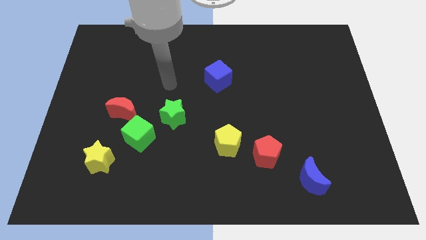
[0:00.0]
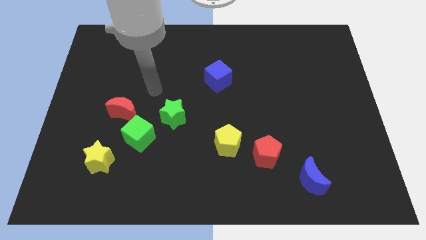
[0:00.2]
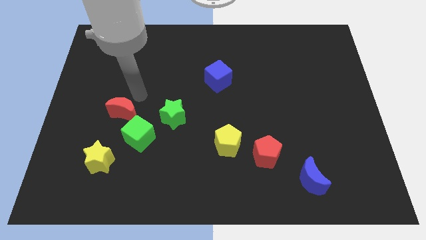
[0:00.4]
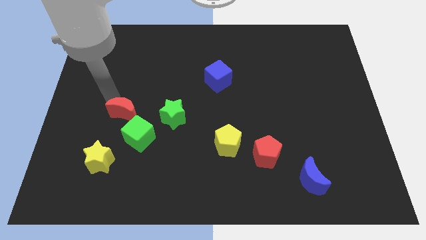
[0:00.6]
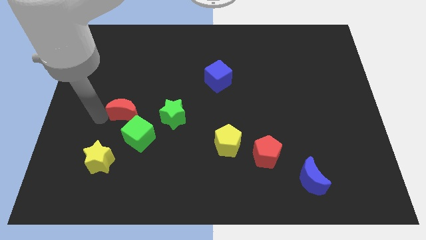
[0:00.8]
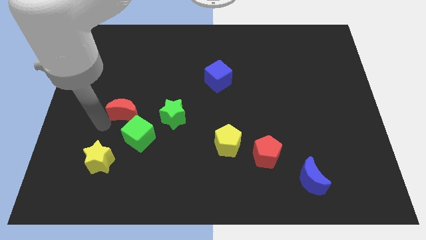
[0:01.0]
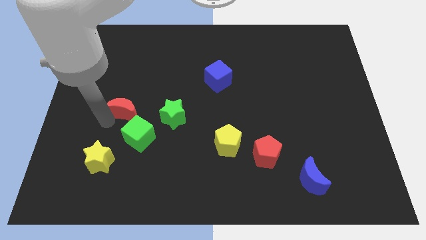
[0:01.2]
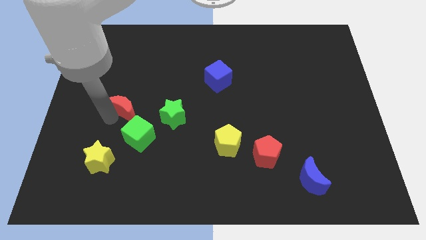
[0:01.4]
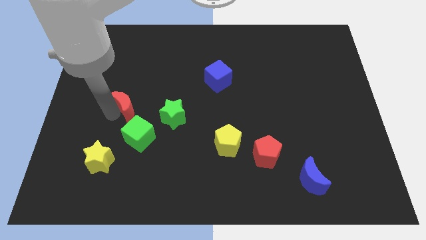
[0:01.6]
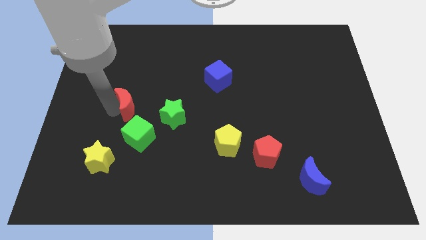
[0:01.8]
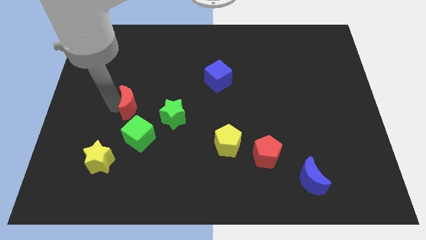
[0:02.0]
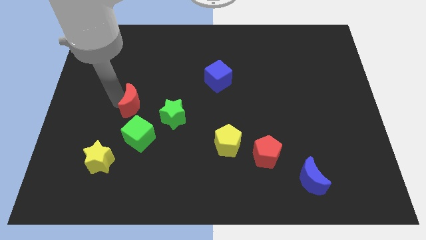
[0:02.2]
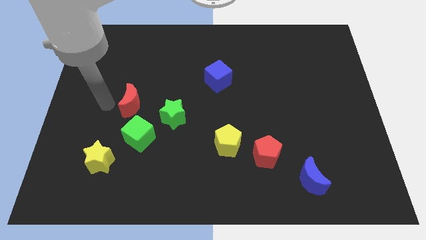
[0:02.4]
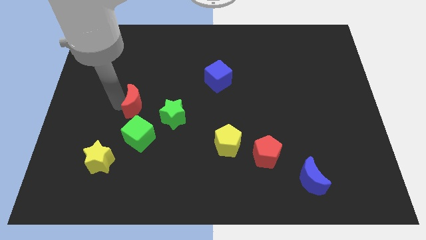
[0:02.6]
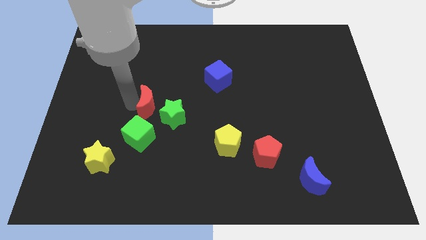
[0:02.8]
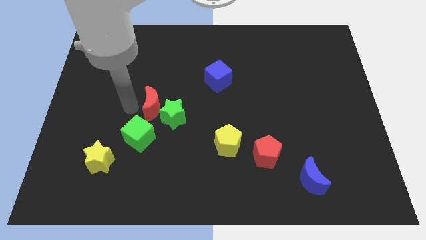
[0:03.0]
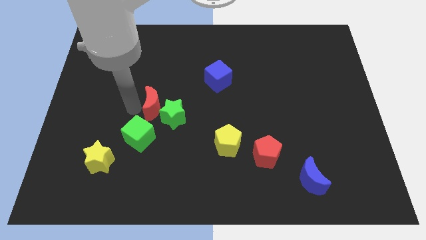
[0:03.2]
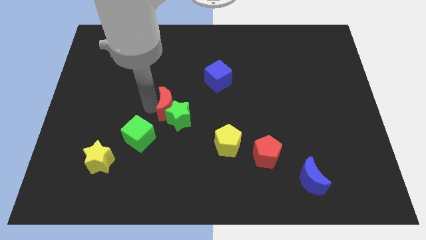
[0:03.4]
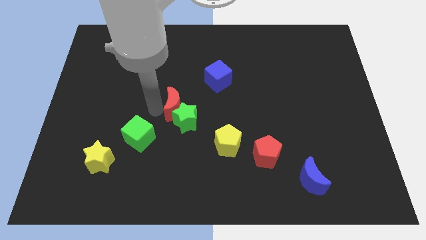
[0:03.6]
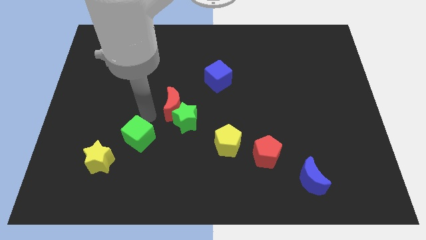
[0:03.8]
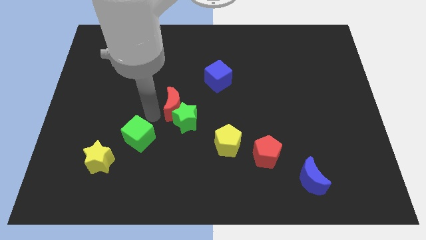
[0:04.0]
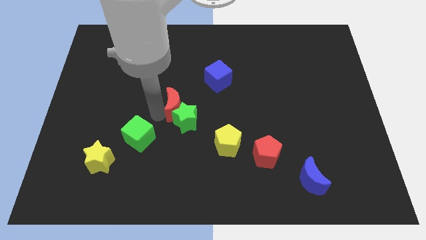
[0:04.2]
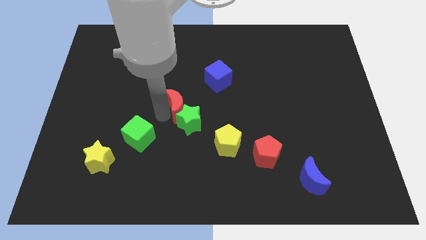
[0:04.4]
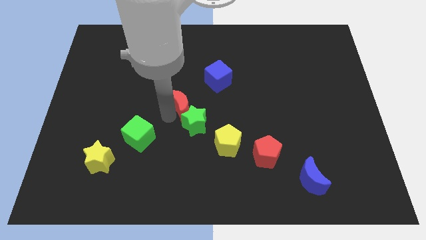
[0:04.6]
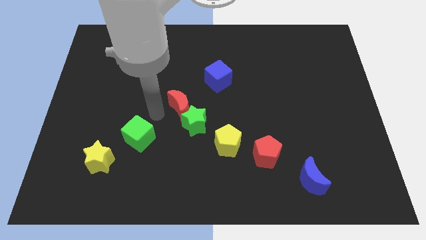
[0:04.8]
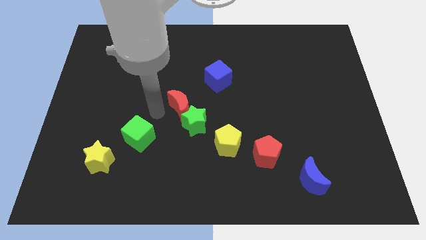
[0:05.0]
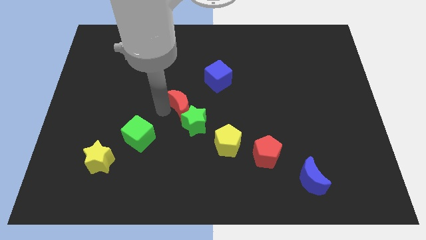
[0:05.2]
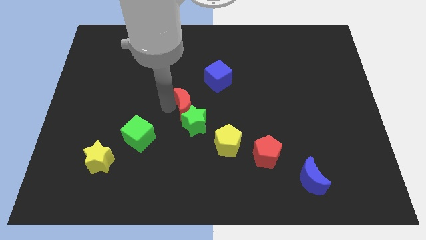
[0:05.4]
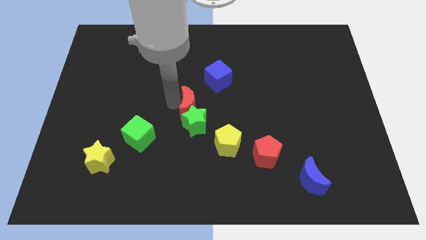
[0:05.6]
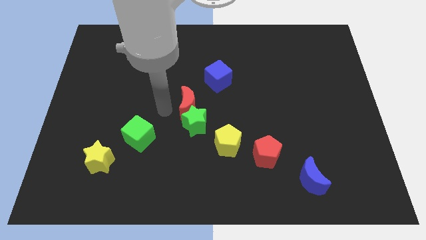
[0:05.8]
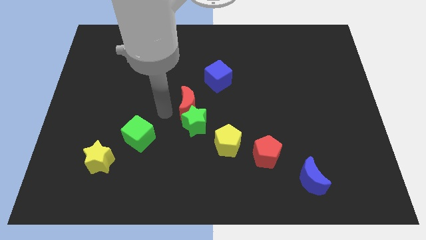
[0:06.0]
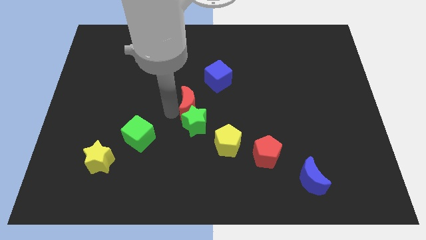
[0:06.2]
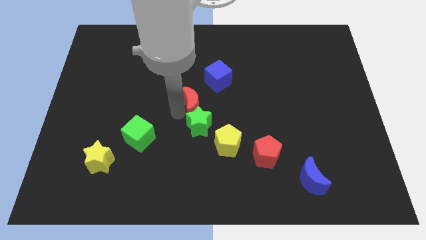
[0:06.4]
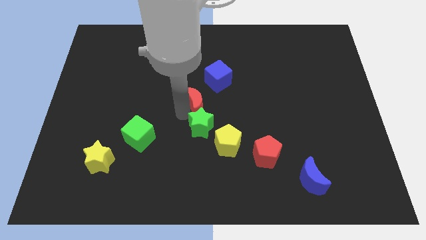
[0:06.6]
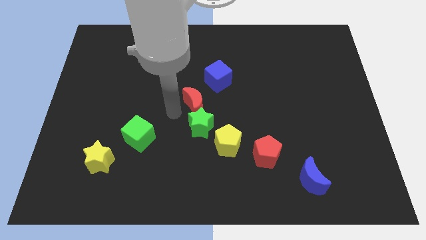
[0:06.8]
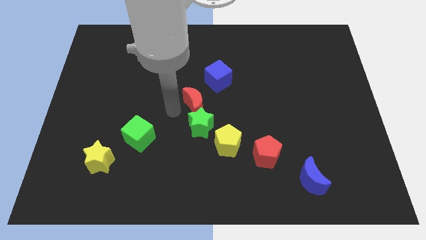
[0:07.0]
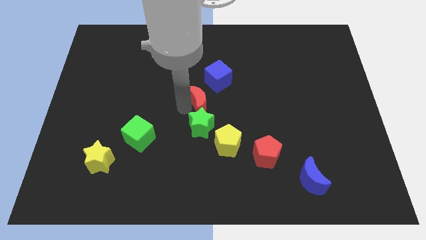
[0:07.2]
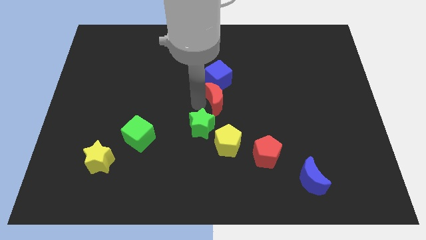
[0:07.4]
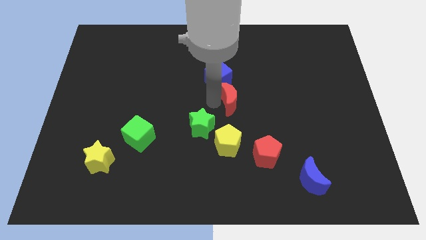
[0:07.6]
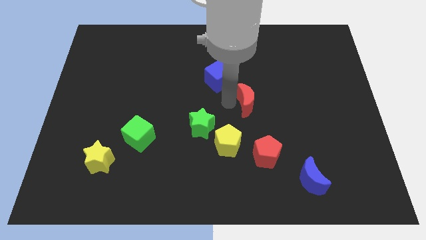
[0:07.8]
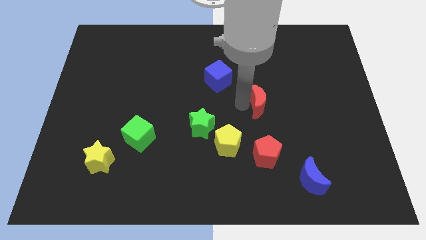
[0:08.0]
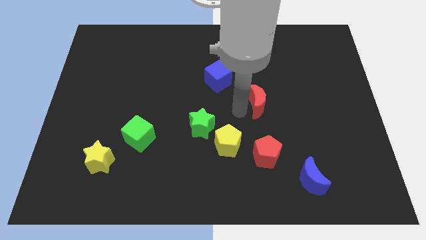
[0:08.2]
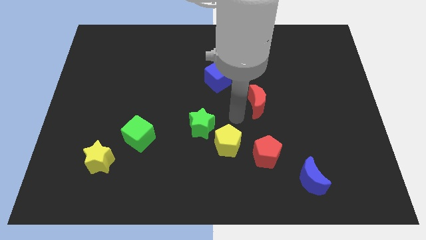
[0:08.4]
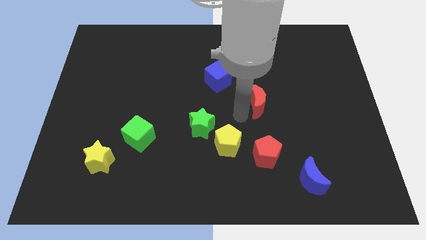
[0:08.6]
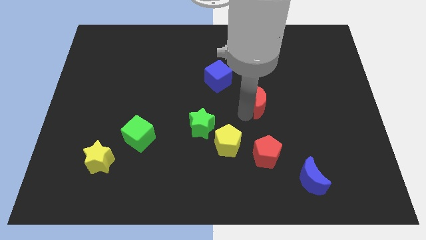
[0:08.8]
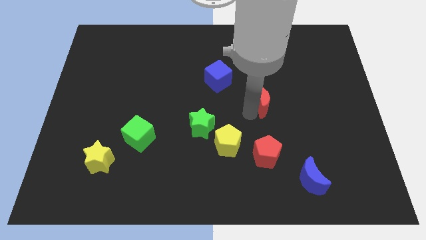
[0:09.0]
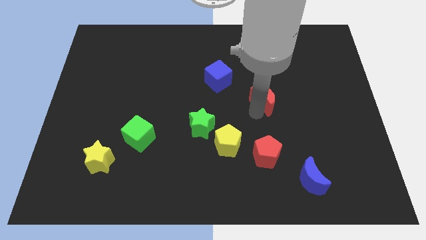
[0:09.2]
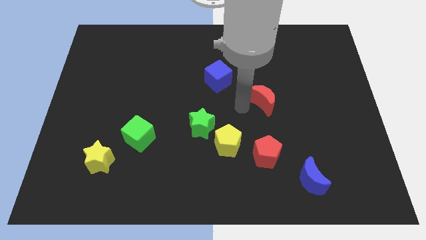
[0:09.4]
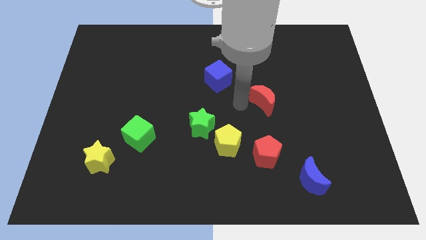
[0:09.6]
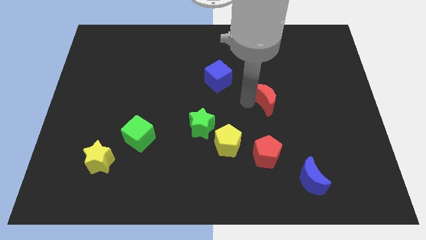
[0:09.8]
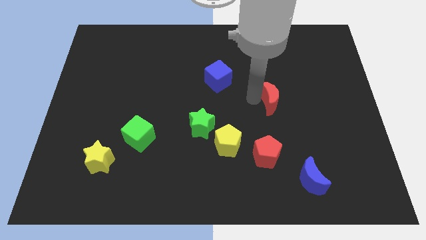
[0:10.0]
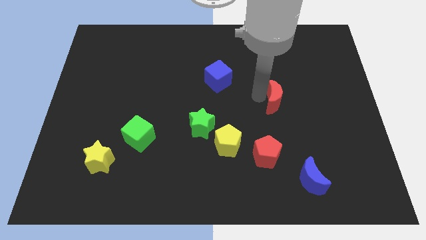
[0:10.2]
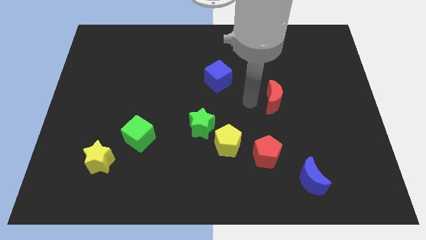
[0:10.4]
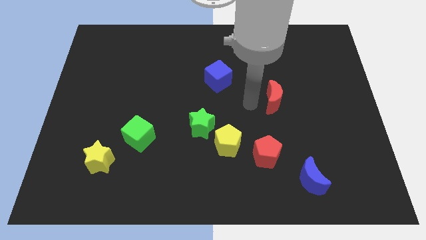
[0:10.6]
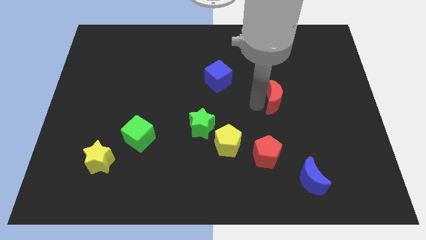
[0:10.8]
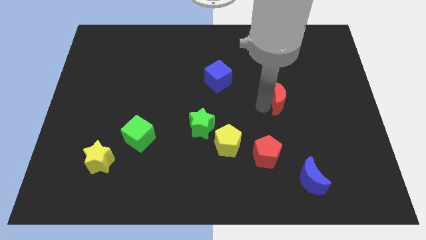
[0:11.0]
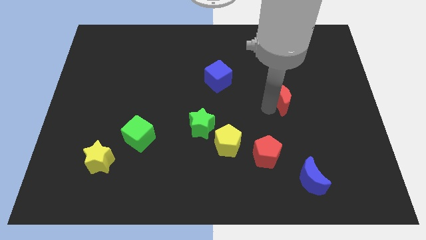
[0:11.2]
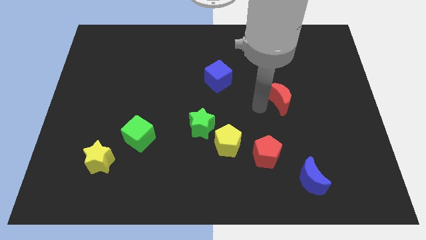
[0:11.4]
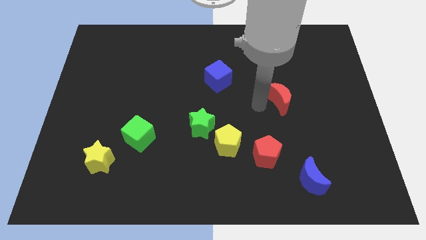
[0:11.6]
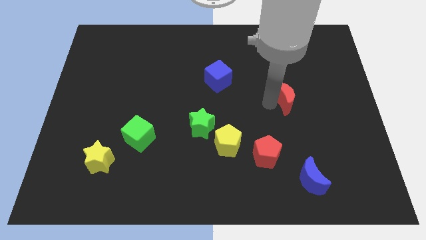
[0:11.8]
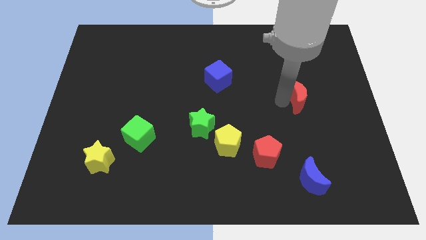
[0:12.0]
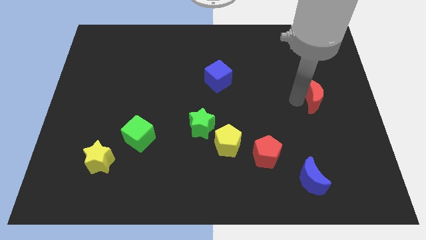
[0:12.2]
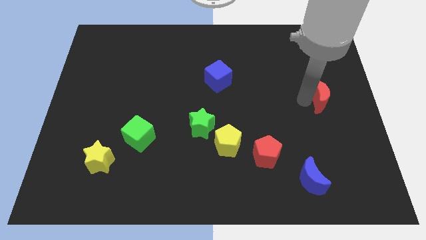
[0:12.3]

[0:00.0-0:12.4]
slide the red moon to the center right

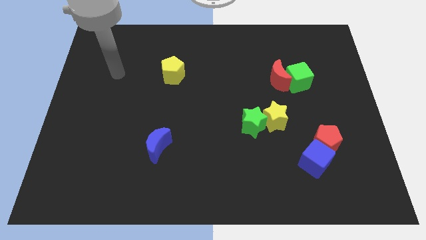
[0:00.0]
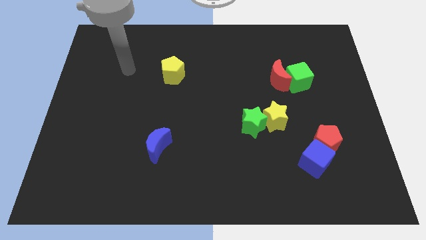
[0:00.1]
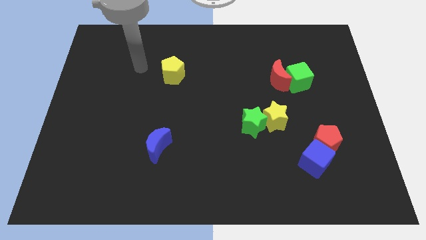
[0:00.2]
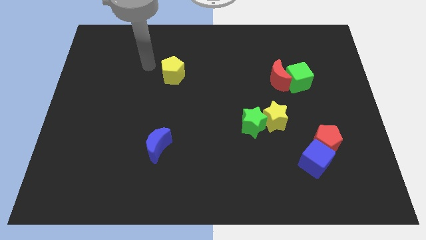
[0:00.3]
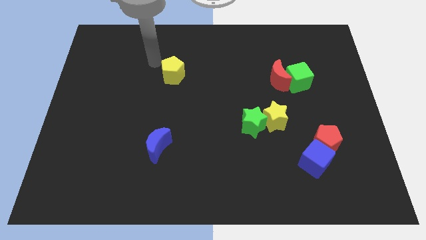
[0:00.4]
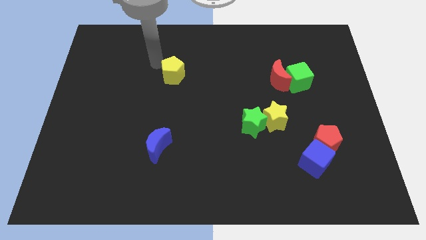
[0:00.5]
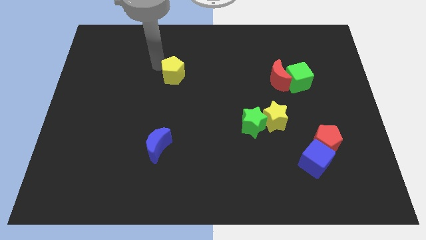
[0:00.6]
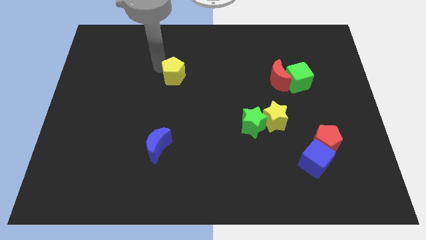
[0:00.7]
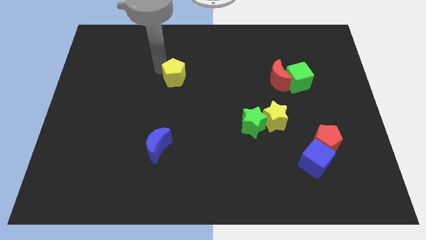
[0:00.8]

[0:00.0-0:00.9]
slide the yellow pentagon to the middle
